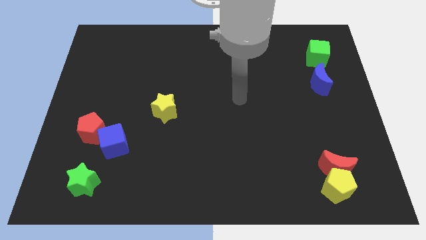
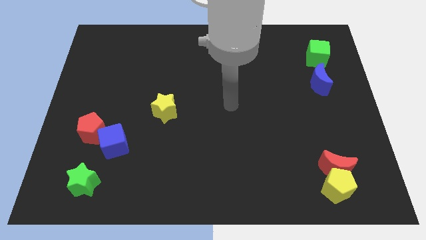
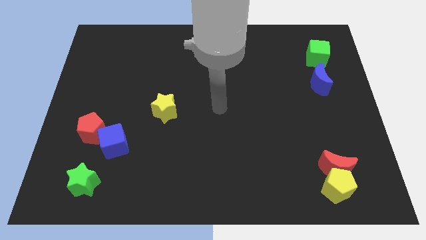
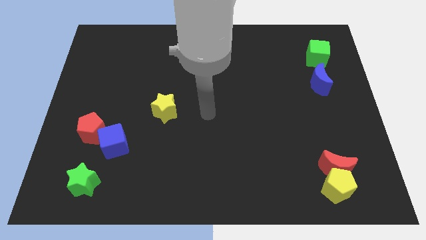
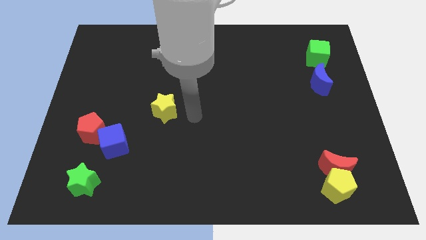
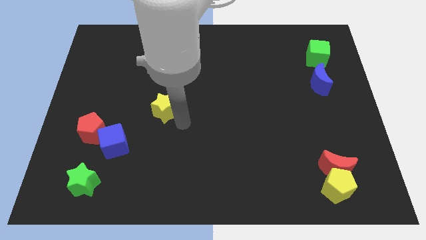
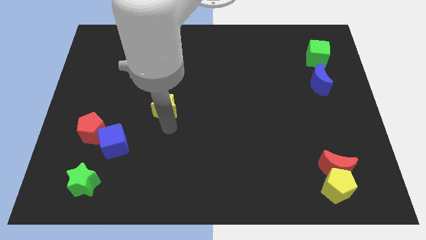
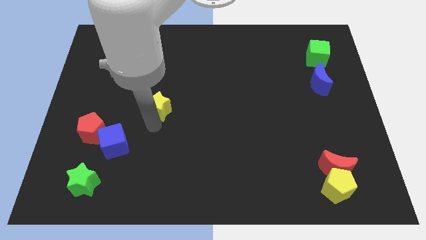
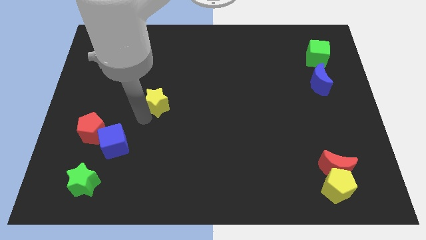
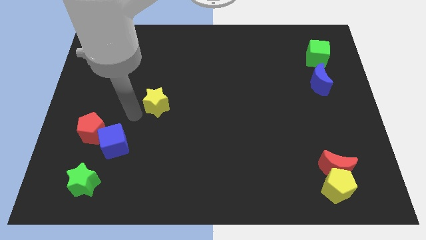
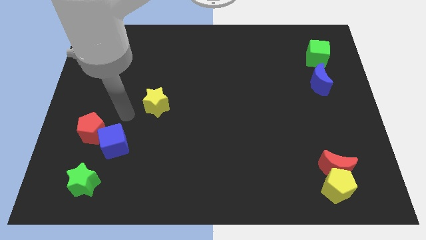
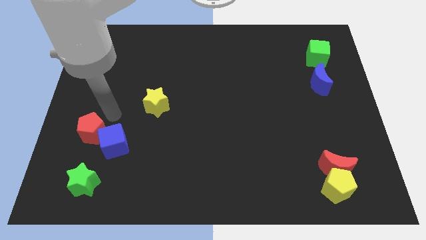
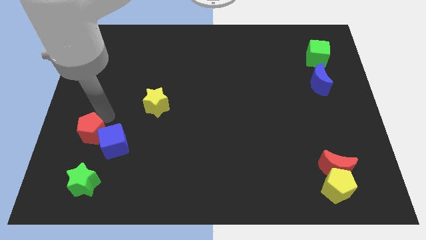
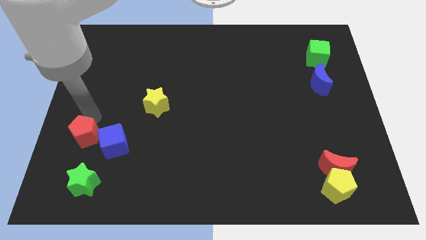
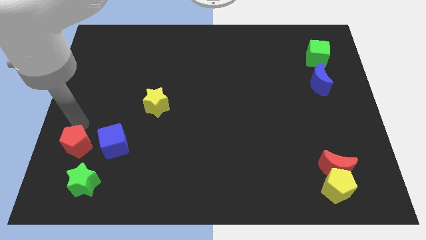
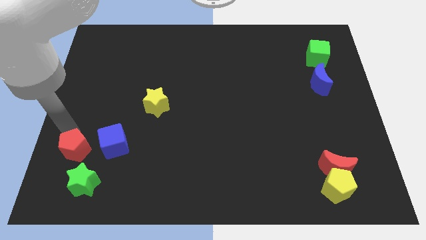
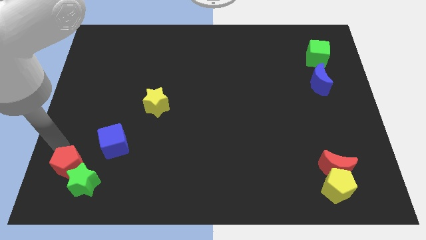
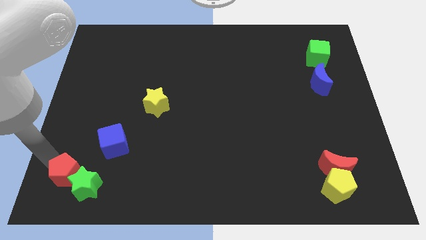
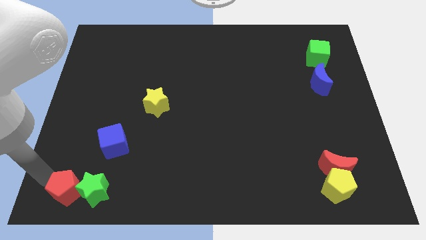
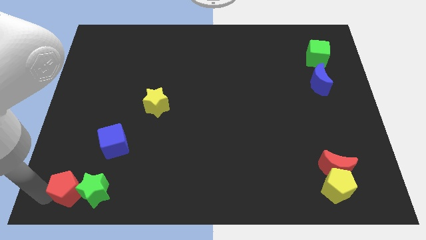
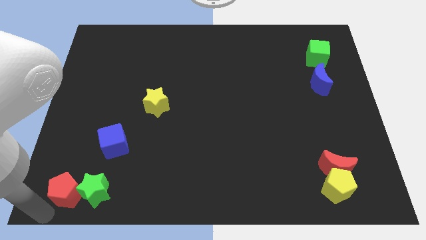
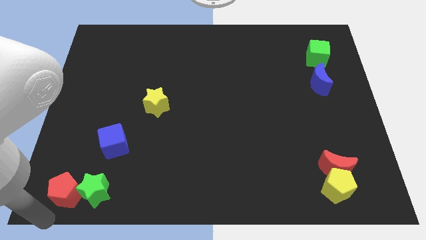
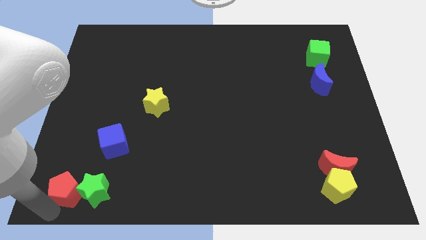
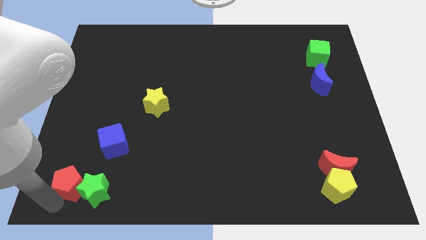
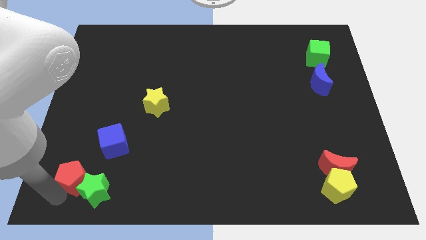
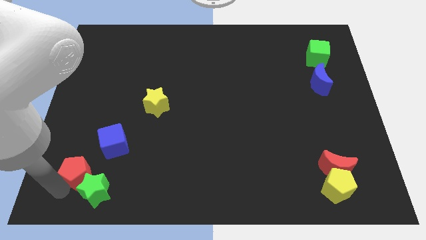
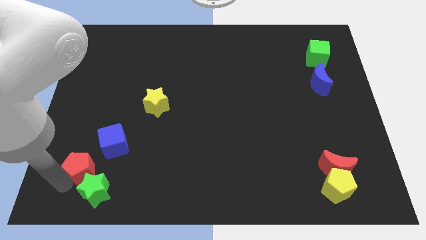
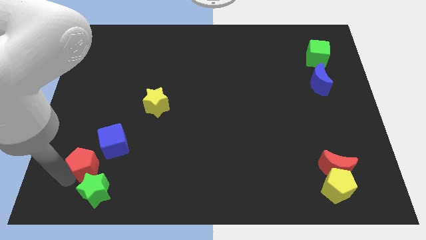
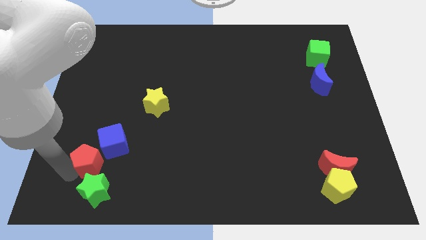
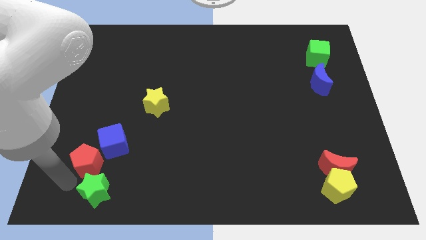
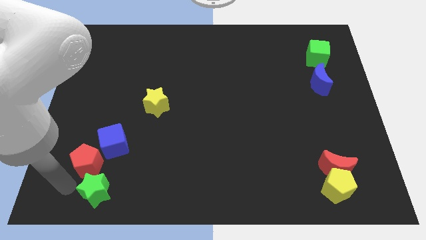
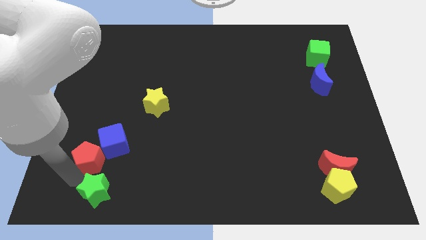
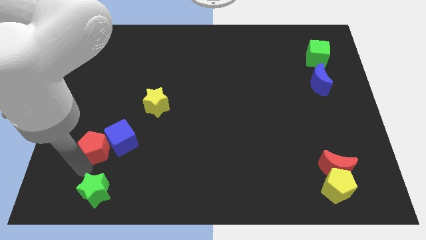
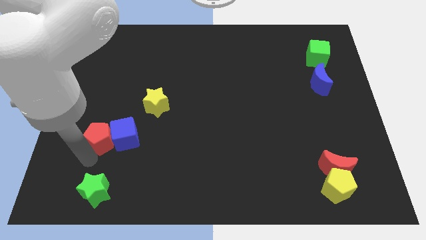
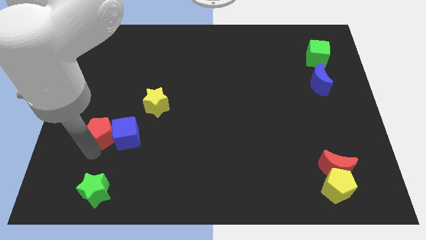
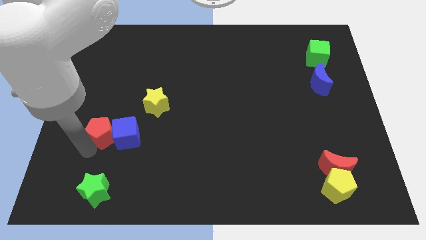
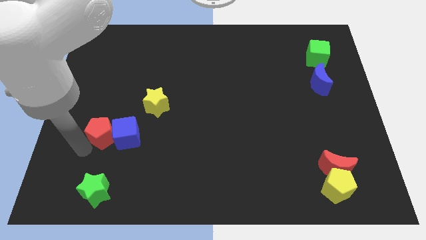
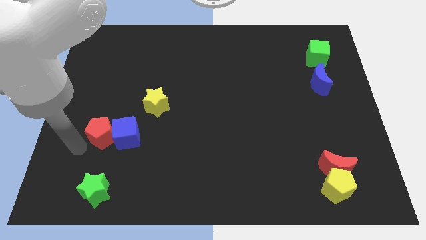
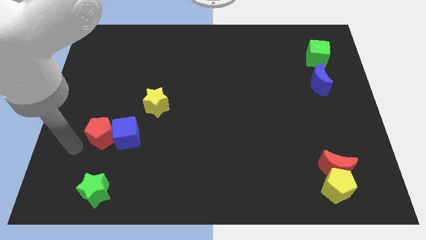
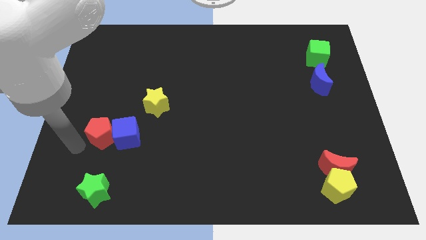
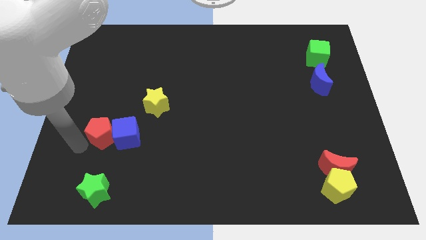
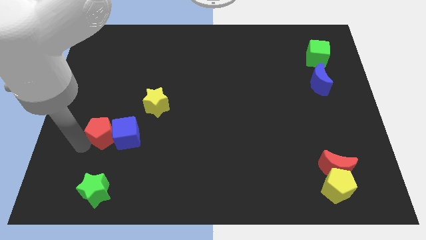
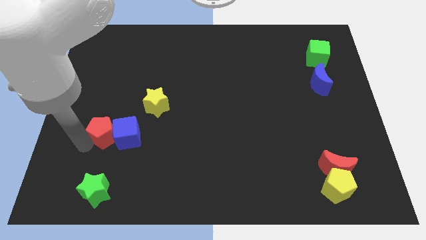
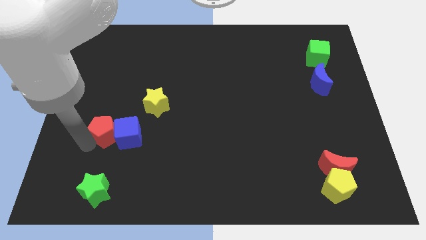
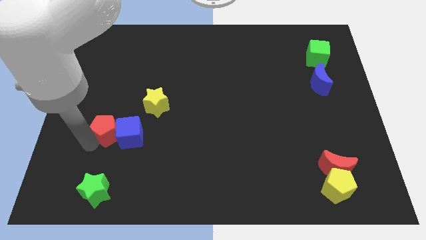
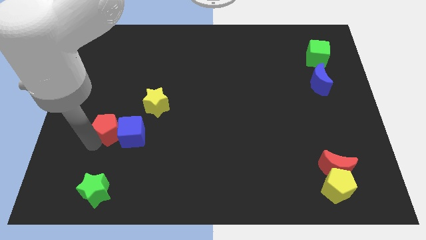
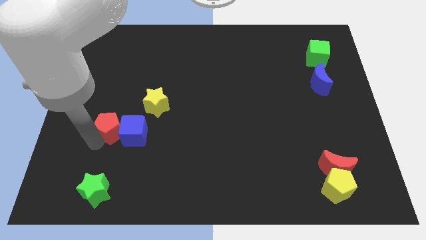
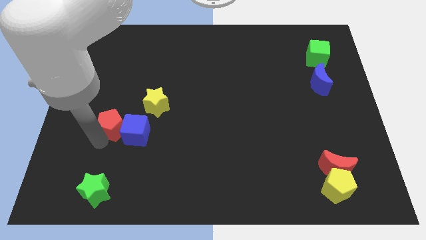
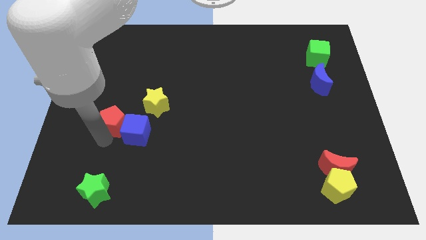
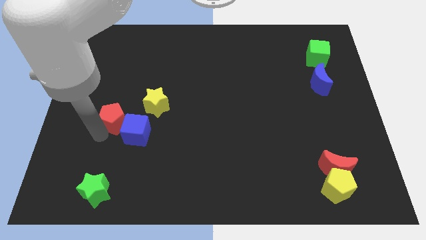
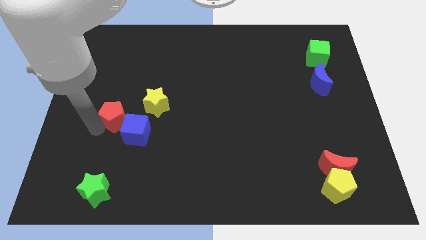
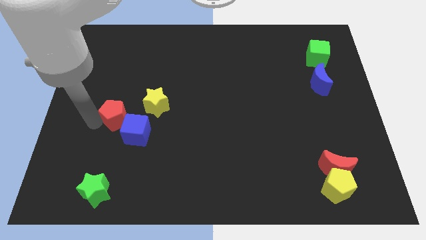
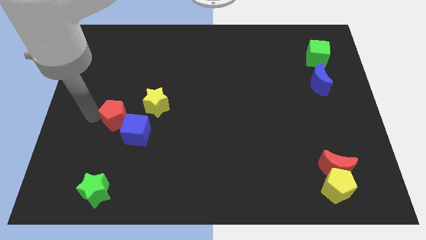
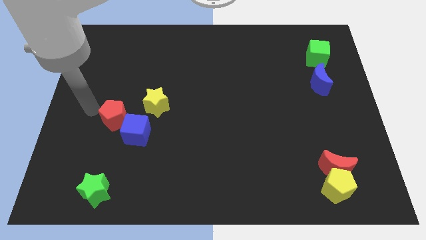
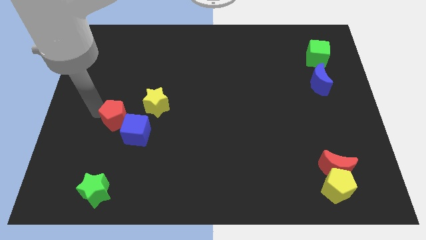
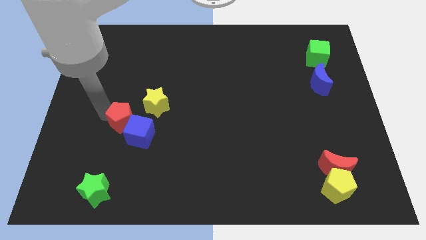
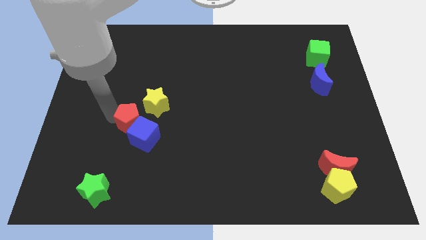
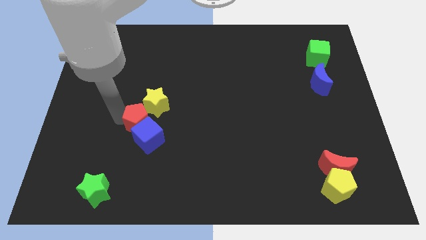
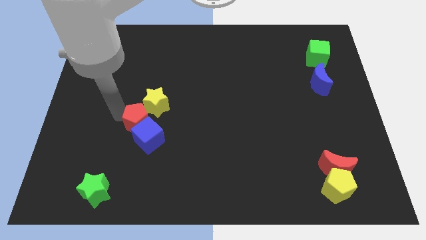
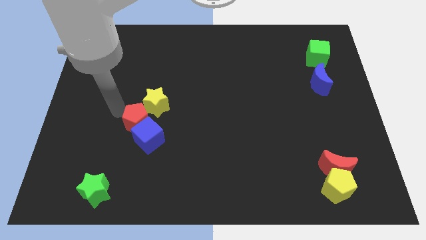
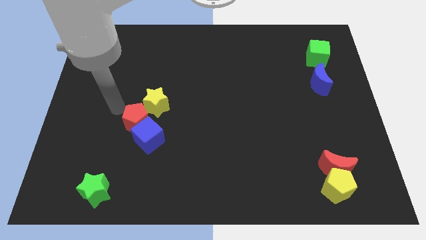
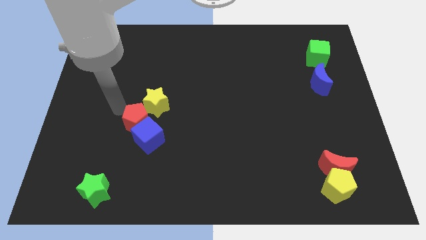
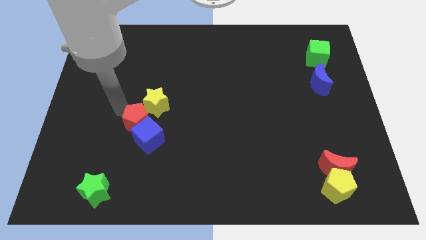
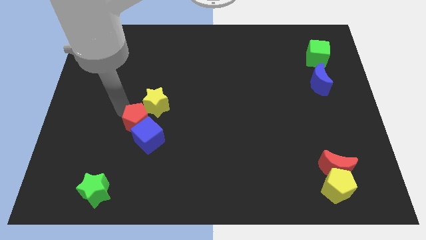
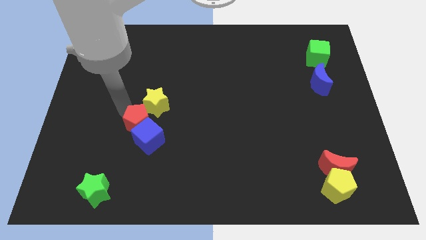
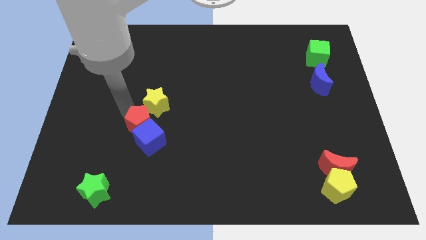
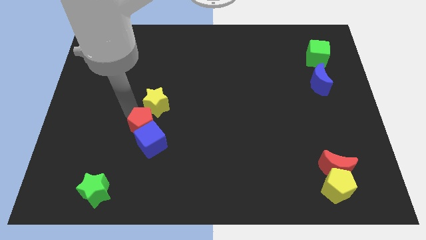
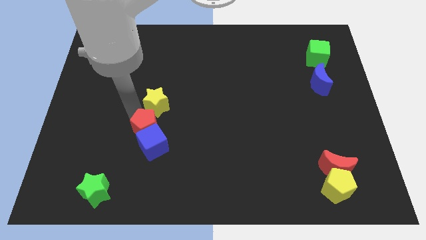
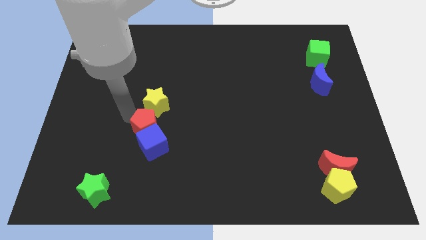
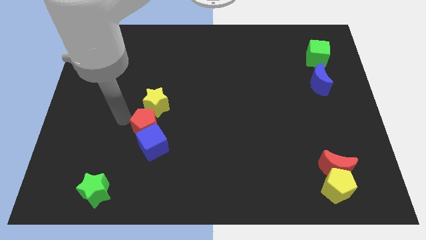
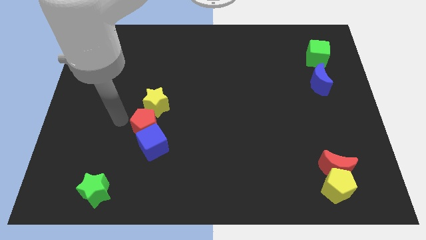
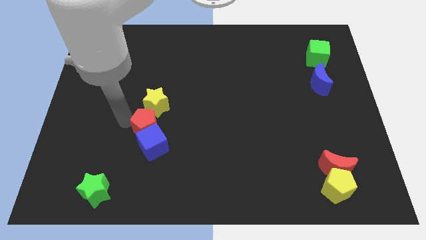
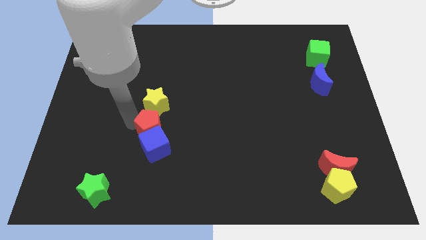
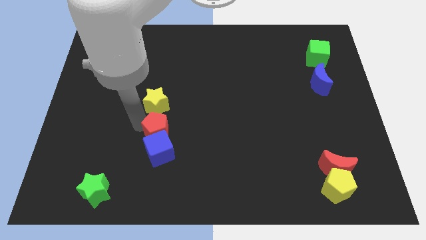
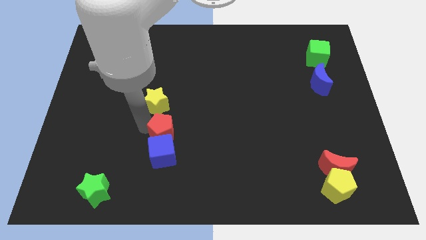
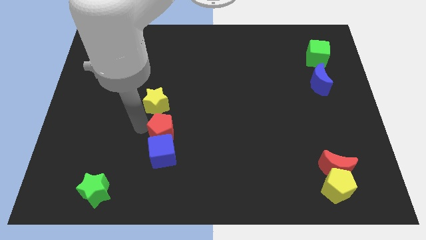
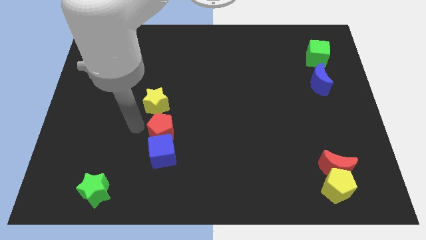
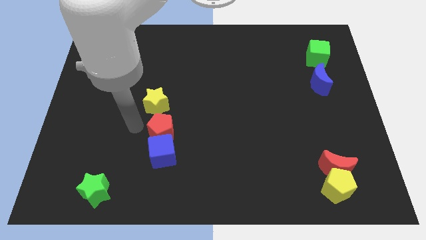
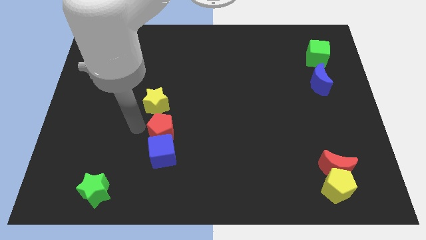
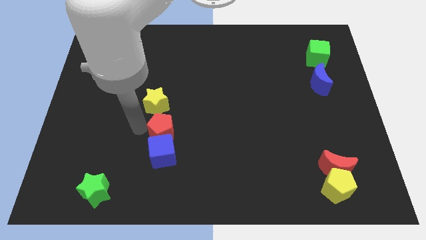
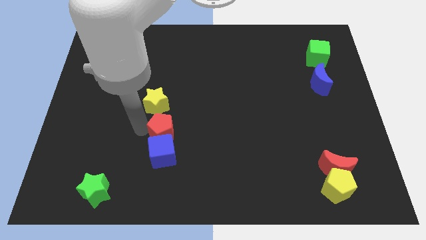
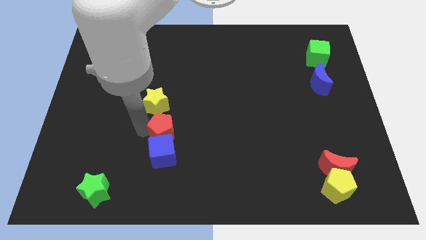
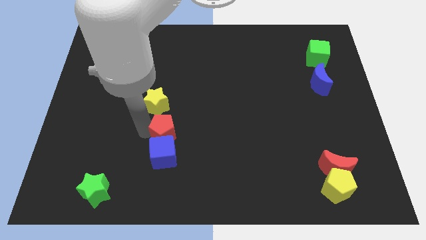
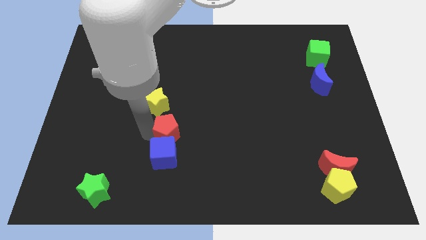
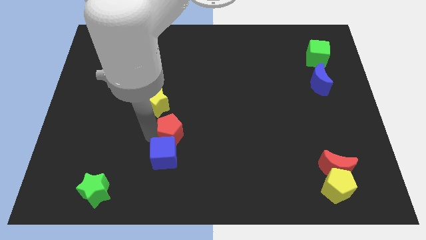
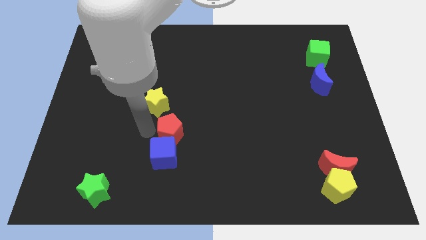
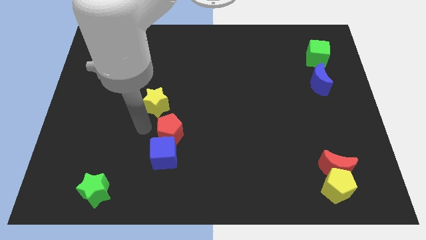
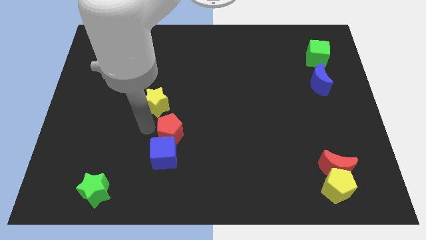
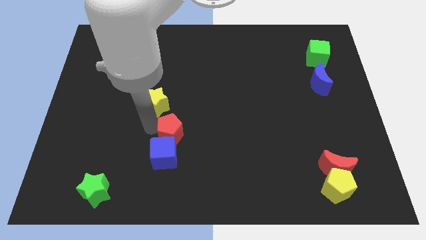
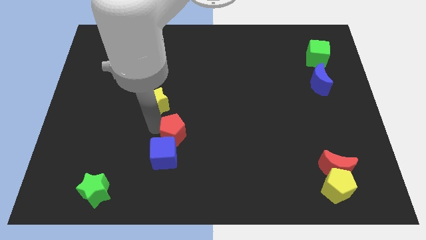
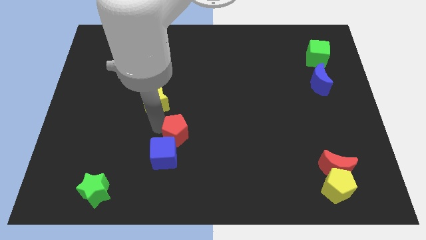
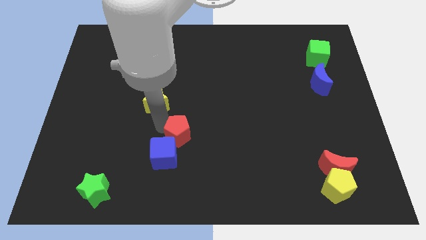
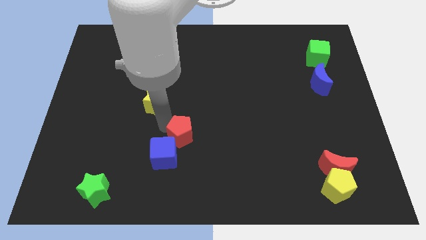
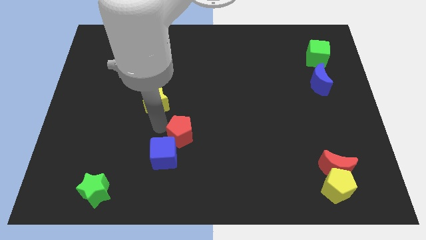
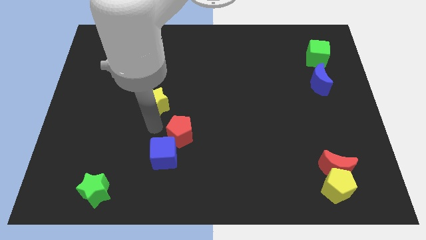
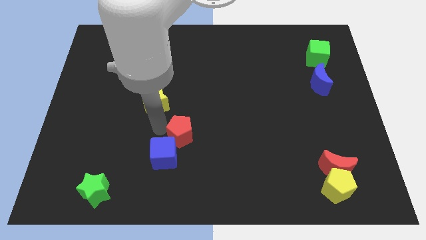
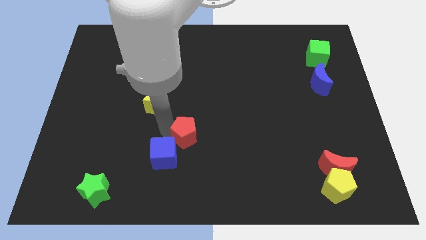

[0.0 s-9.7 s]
push the red pentagon to the right
